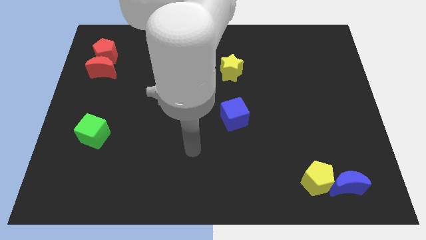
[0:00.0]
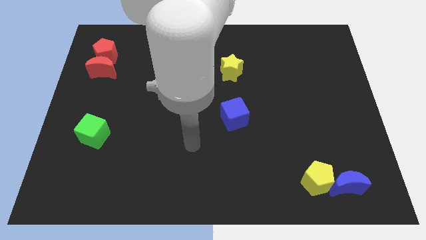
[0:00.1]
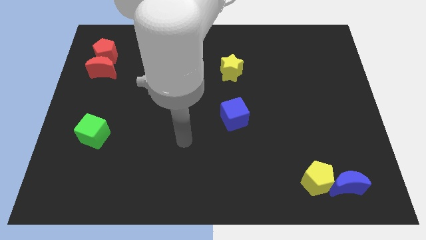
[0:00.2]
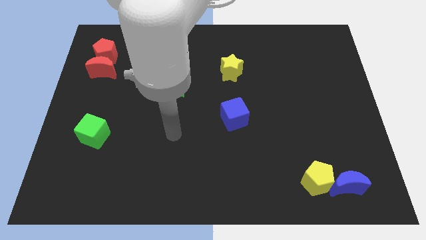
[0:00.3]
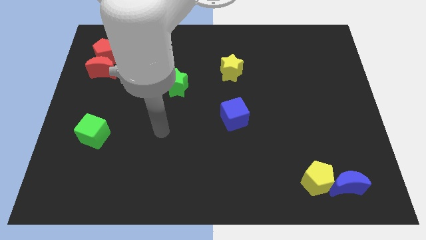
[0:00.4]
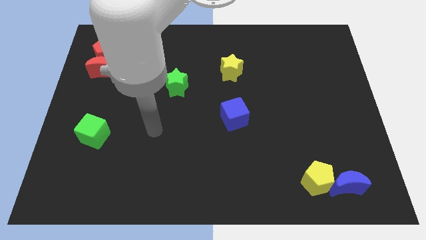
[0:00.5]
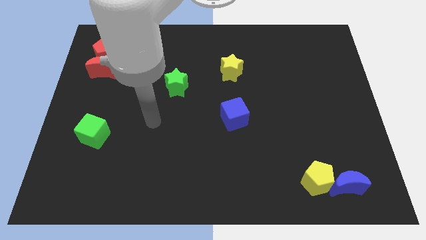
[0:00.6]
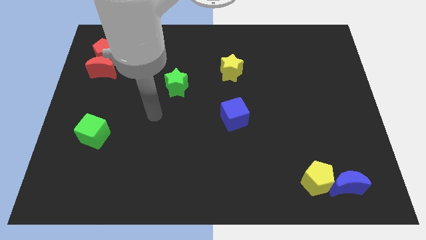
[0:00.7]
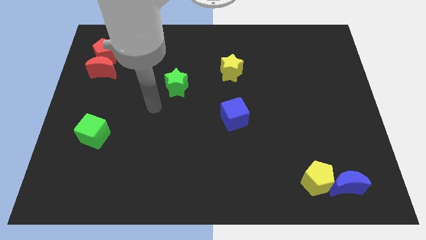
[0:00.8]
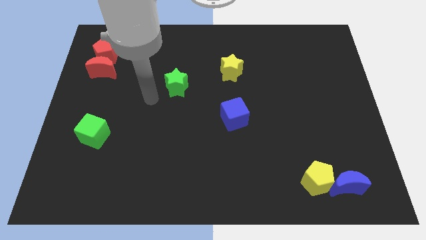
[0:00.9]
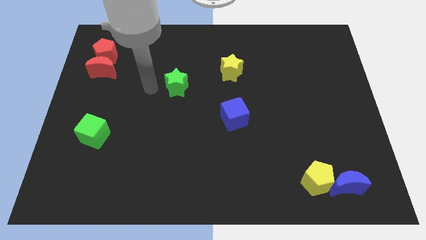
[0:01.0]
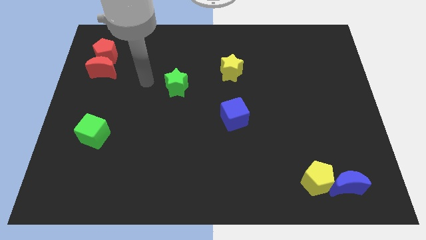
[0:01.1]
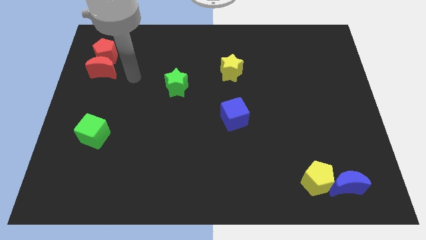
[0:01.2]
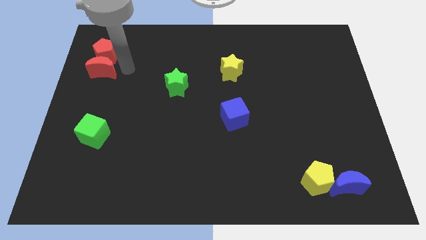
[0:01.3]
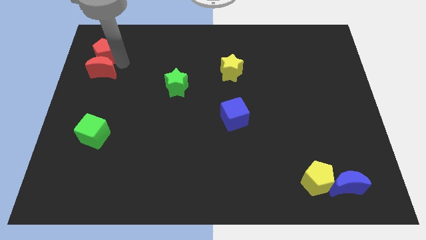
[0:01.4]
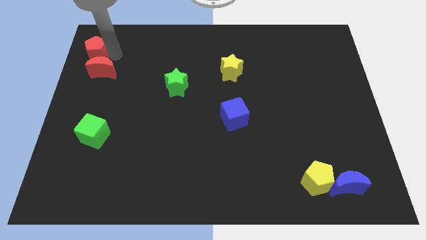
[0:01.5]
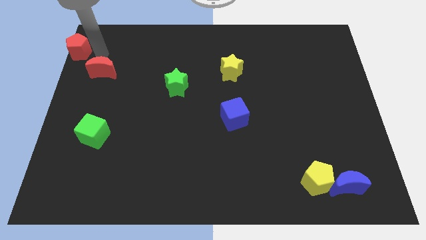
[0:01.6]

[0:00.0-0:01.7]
move the red moon away from the red pentagon

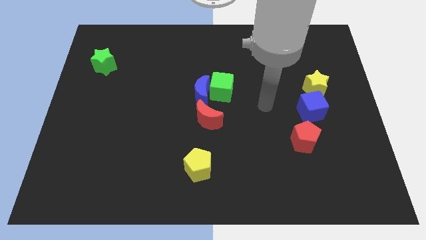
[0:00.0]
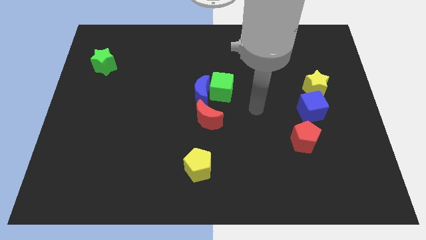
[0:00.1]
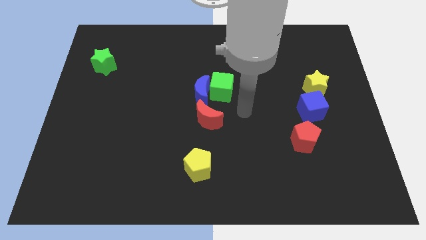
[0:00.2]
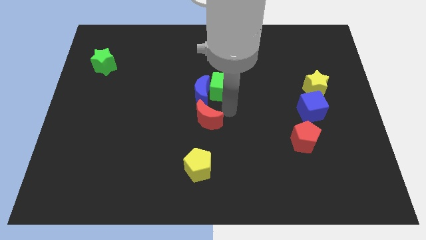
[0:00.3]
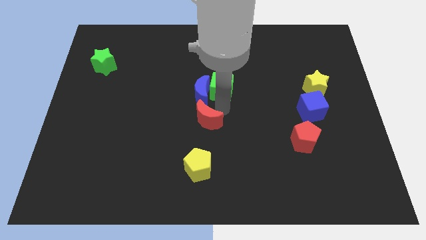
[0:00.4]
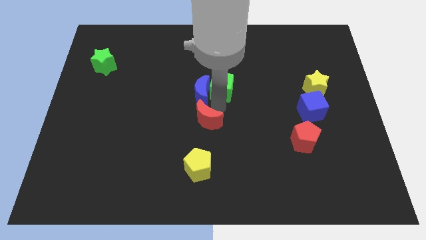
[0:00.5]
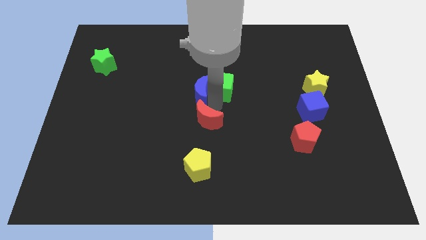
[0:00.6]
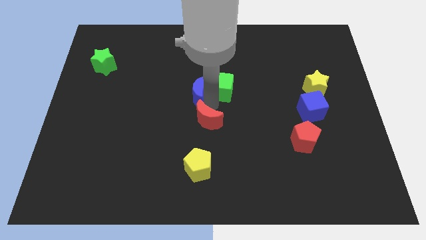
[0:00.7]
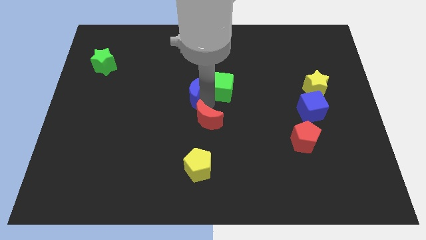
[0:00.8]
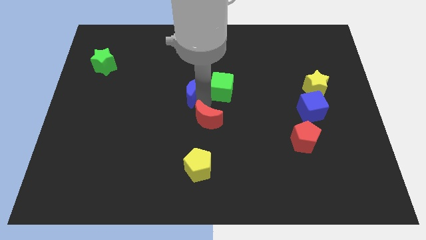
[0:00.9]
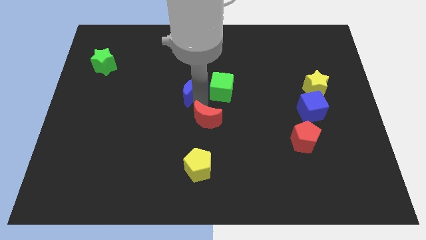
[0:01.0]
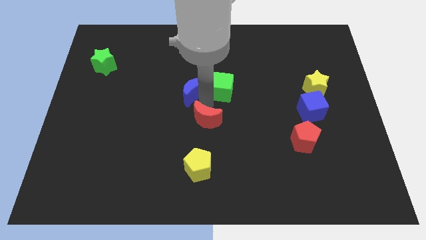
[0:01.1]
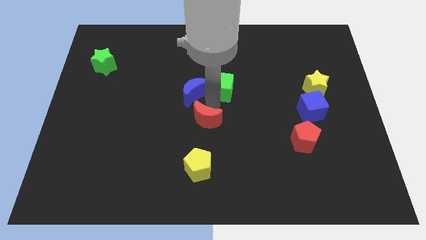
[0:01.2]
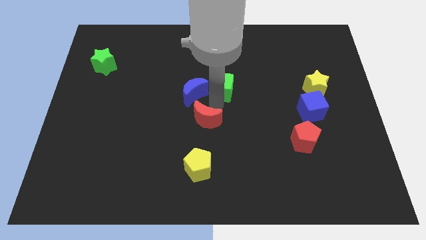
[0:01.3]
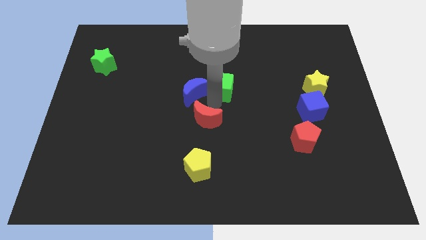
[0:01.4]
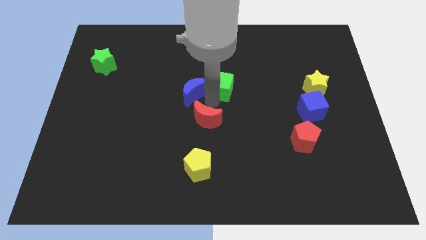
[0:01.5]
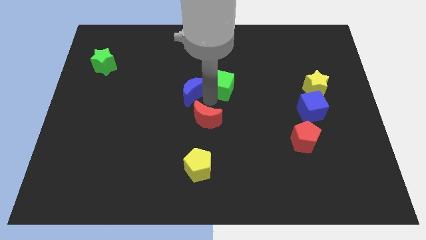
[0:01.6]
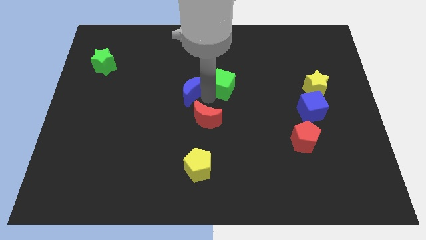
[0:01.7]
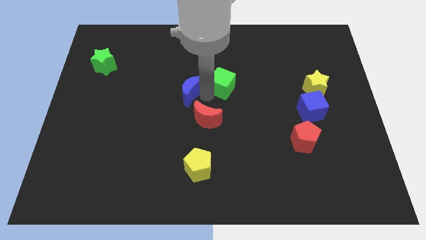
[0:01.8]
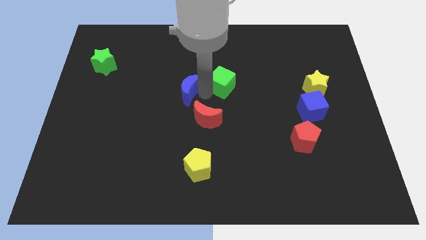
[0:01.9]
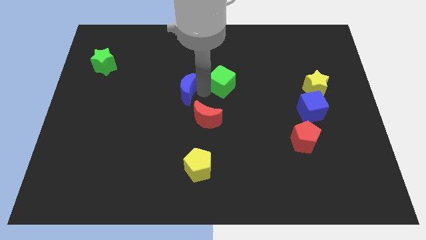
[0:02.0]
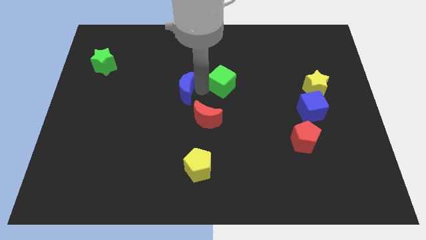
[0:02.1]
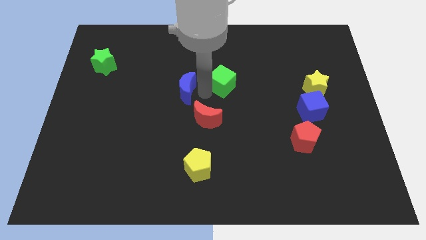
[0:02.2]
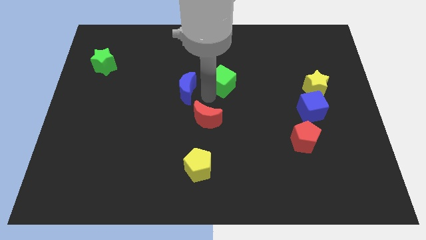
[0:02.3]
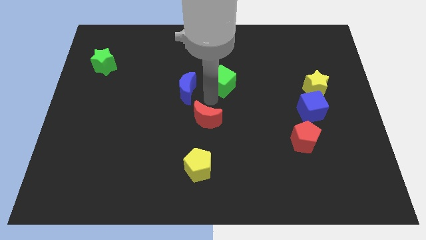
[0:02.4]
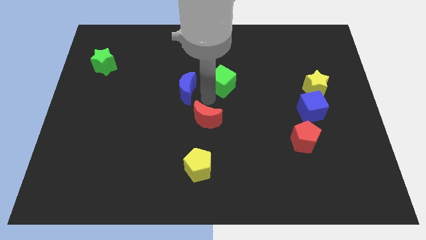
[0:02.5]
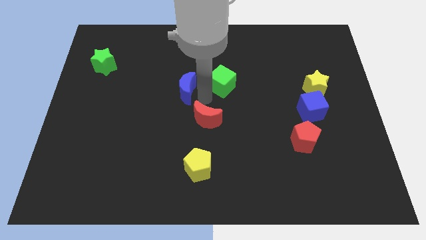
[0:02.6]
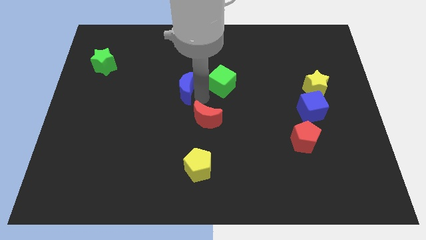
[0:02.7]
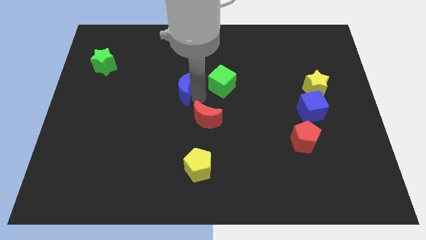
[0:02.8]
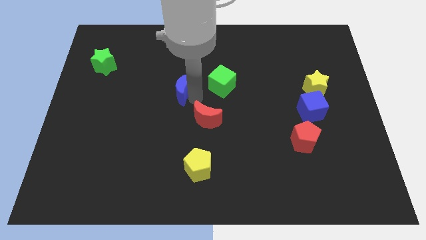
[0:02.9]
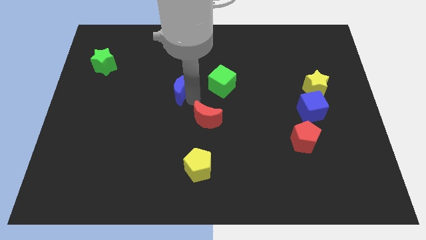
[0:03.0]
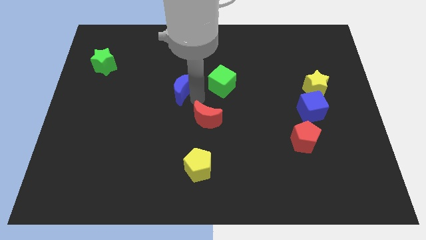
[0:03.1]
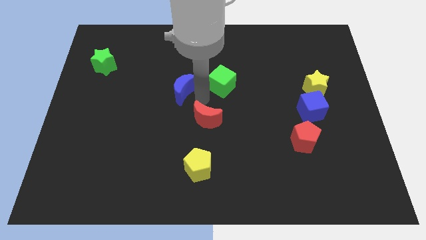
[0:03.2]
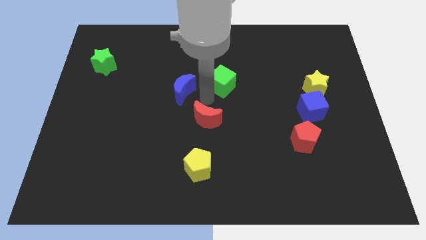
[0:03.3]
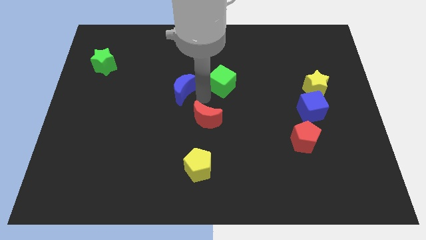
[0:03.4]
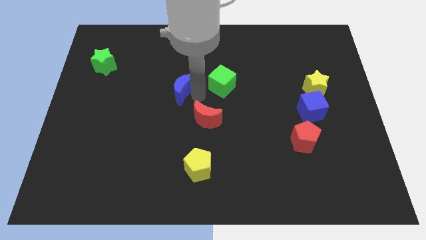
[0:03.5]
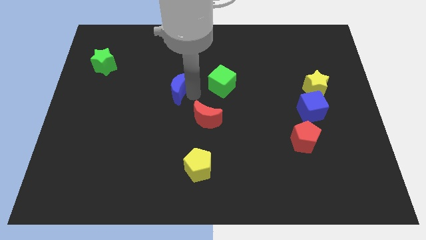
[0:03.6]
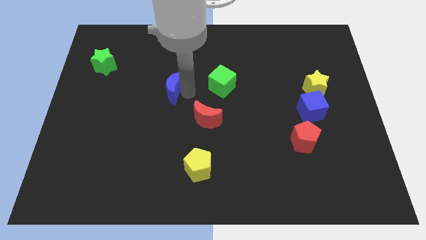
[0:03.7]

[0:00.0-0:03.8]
move the blue moon away from the green cube and red moon

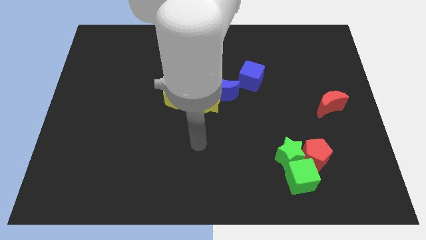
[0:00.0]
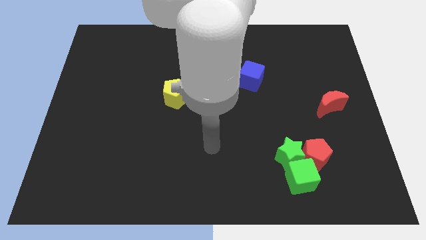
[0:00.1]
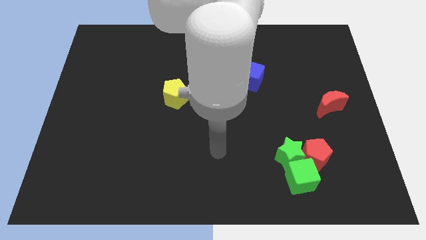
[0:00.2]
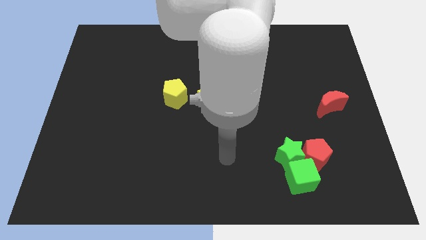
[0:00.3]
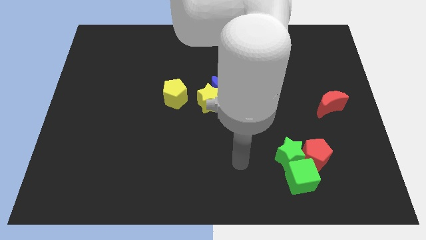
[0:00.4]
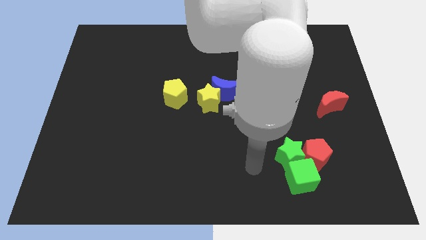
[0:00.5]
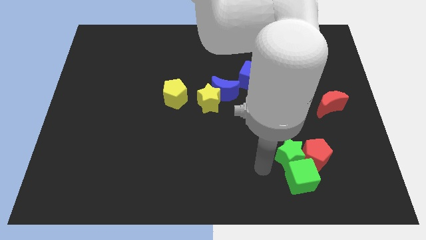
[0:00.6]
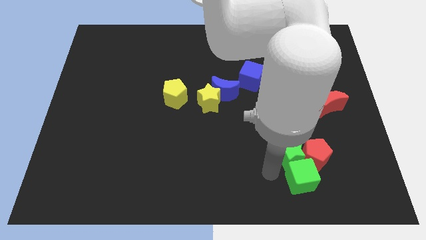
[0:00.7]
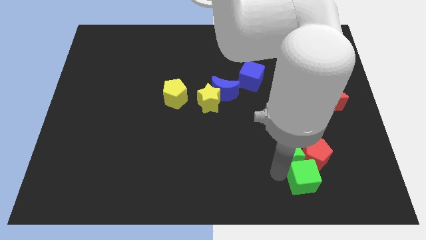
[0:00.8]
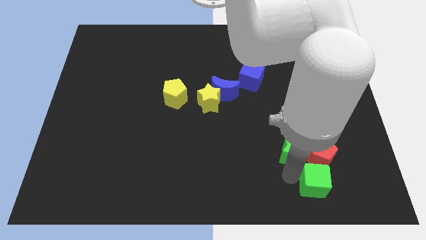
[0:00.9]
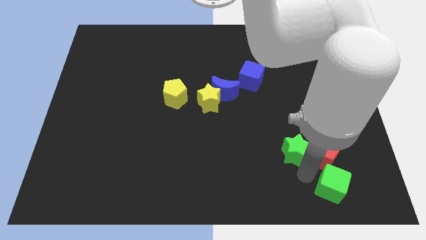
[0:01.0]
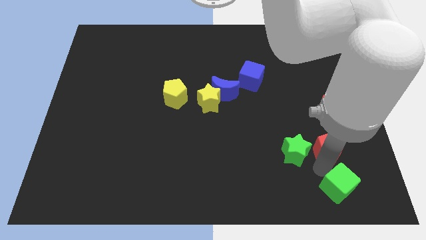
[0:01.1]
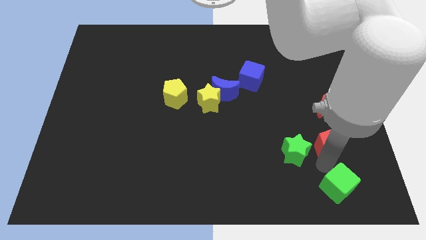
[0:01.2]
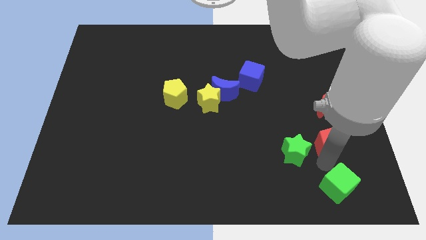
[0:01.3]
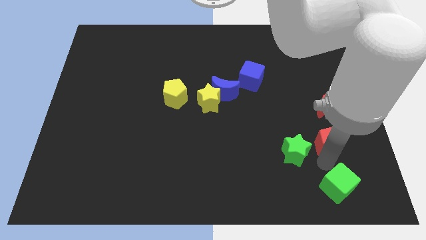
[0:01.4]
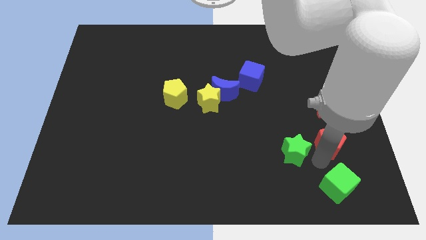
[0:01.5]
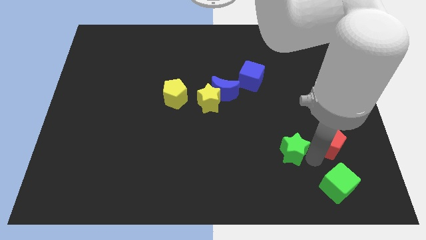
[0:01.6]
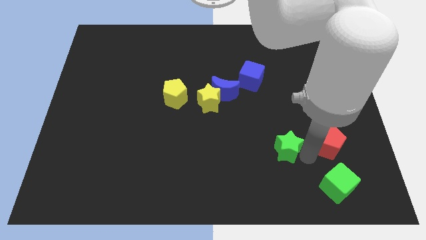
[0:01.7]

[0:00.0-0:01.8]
move the green star away from the red pentagon and green cube

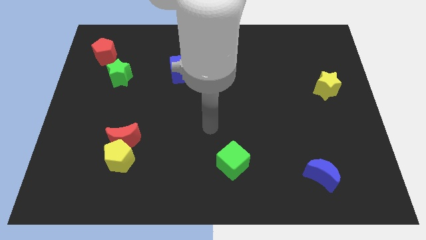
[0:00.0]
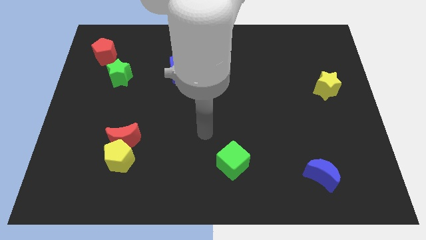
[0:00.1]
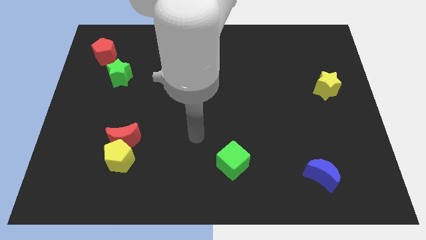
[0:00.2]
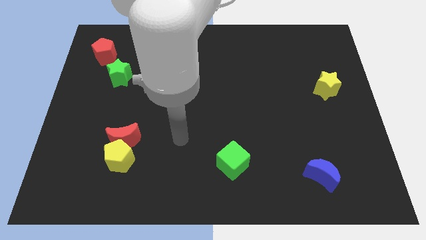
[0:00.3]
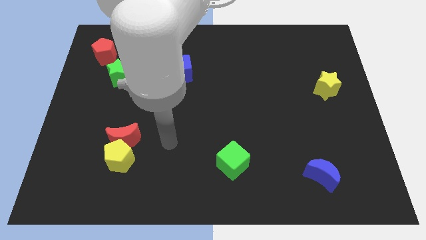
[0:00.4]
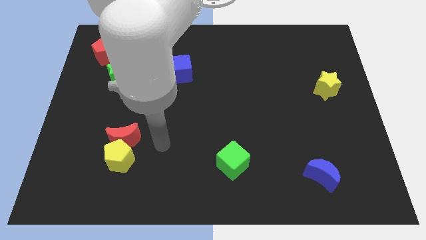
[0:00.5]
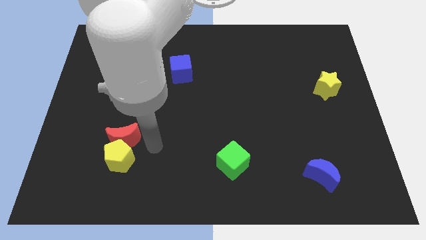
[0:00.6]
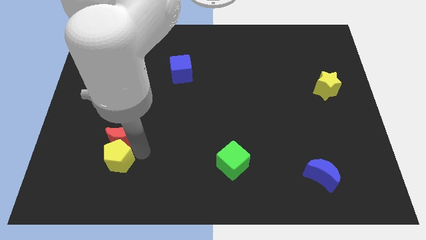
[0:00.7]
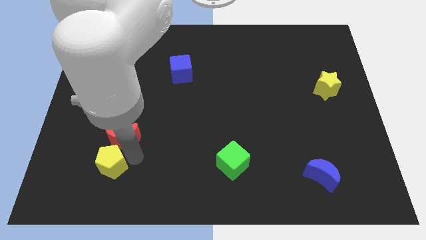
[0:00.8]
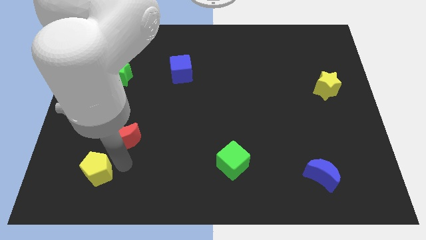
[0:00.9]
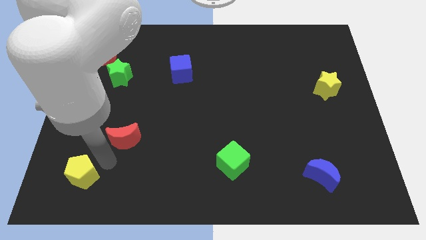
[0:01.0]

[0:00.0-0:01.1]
move the red moon away from the yellow pentagon

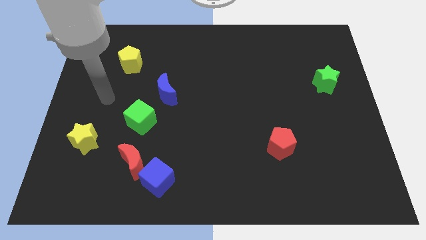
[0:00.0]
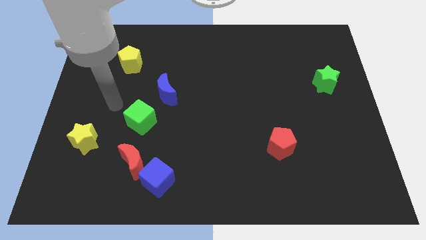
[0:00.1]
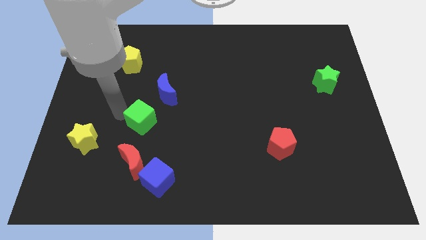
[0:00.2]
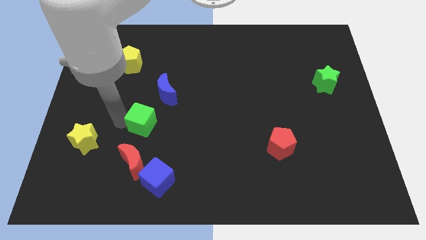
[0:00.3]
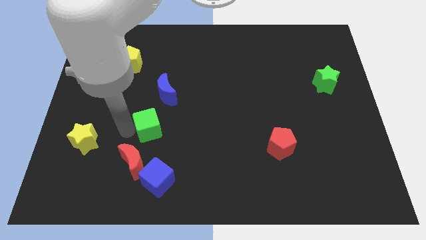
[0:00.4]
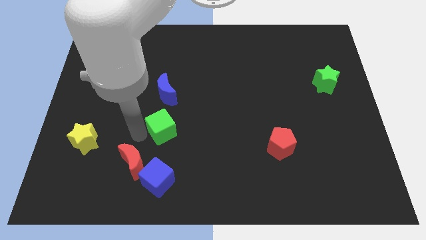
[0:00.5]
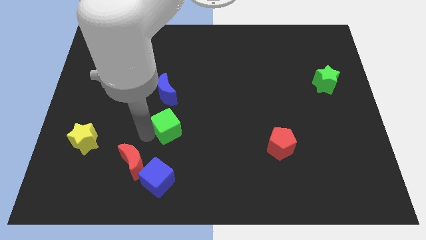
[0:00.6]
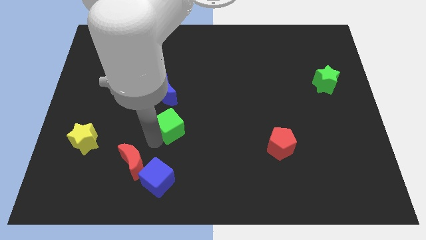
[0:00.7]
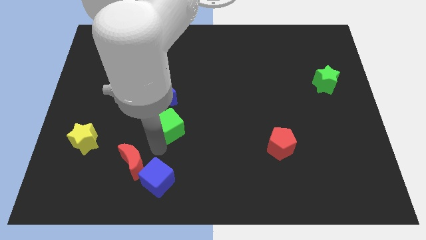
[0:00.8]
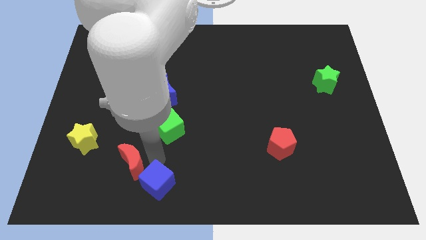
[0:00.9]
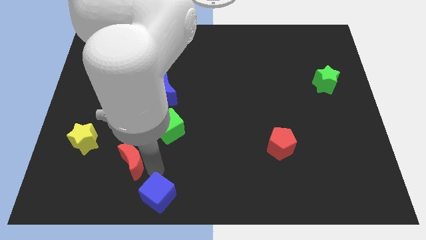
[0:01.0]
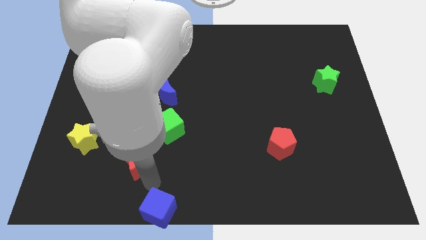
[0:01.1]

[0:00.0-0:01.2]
pull the red moon apart from the blue cube
